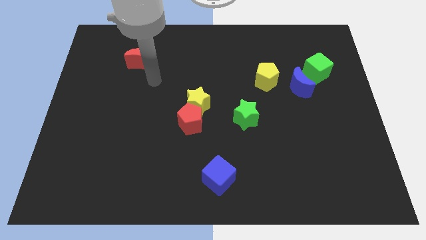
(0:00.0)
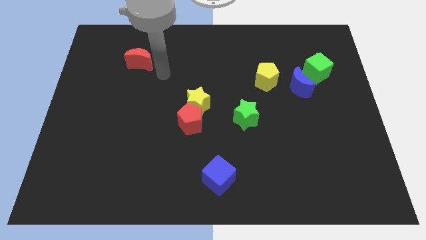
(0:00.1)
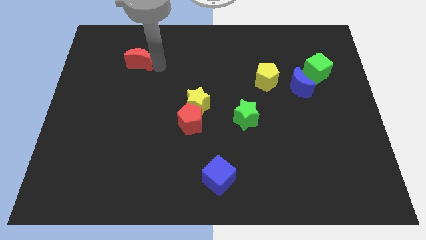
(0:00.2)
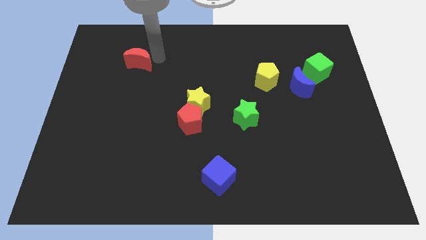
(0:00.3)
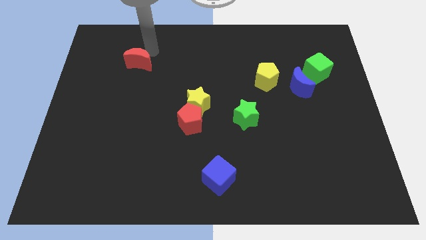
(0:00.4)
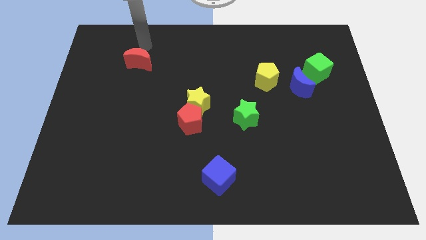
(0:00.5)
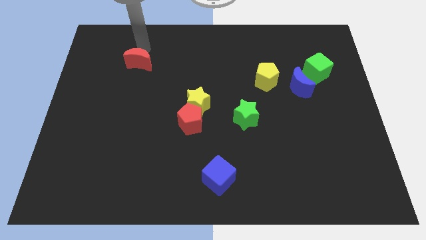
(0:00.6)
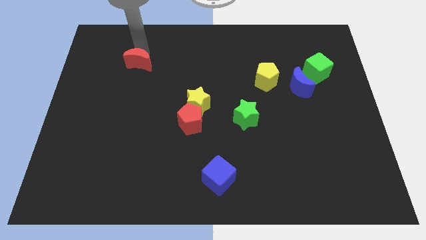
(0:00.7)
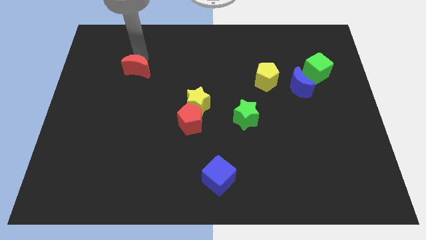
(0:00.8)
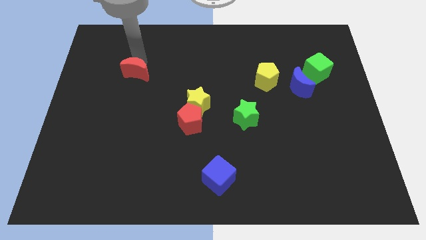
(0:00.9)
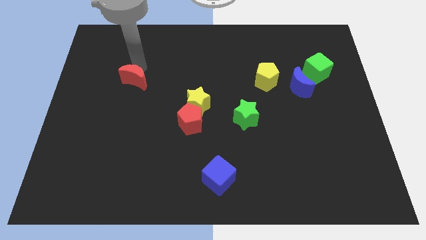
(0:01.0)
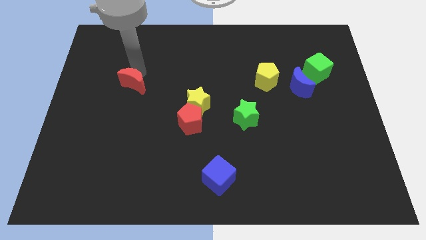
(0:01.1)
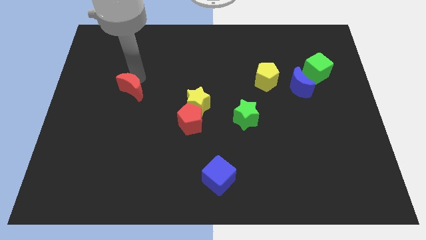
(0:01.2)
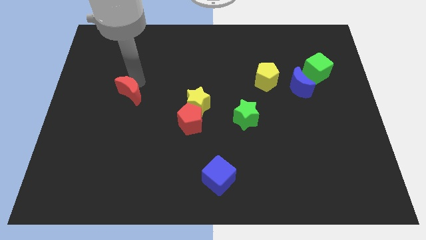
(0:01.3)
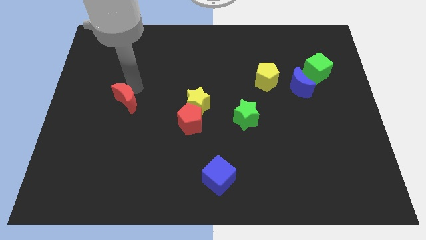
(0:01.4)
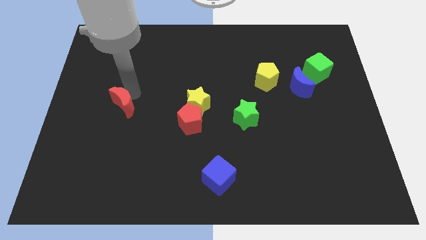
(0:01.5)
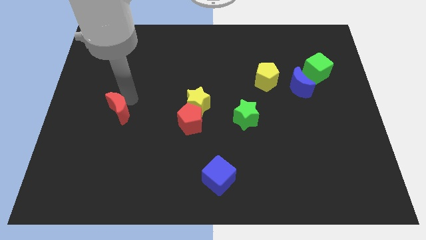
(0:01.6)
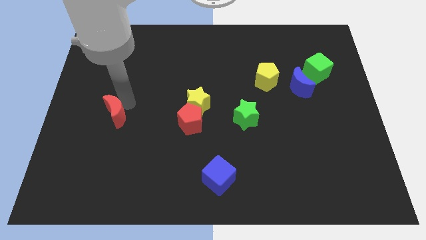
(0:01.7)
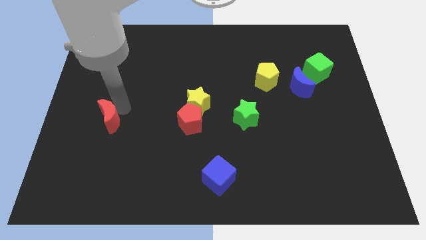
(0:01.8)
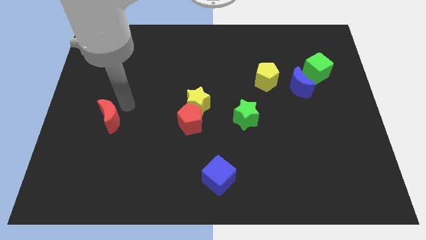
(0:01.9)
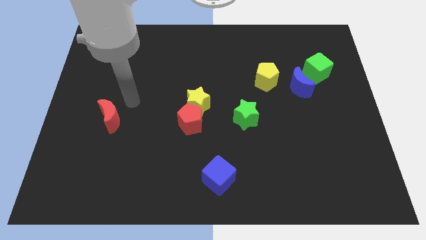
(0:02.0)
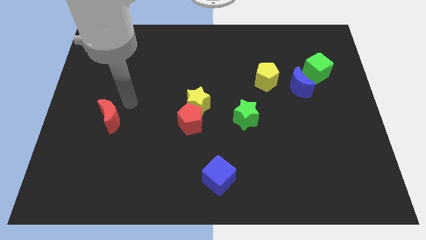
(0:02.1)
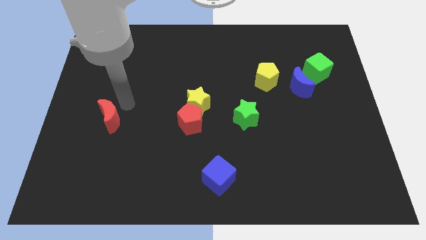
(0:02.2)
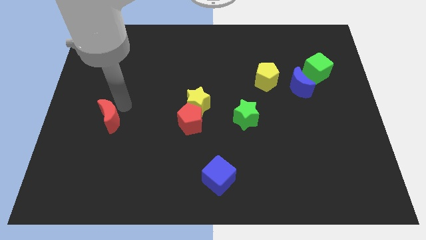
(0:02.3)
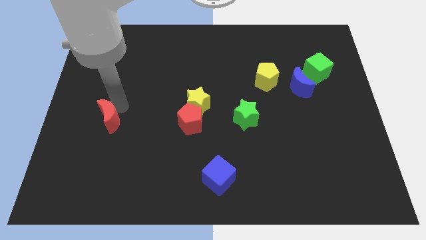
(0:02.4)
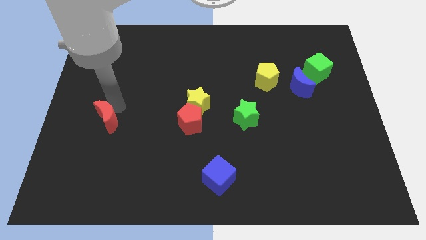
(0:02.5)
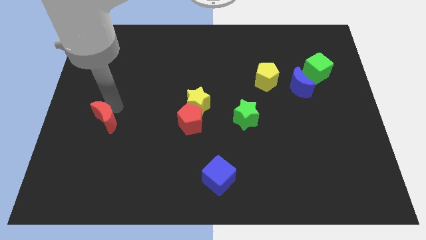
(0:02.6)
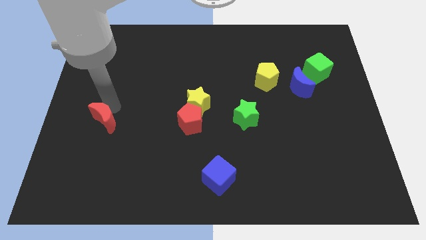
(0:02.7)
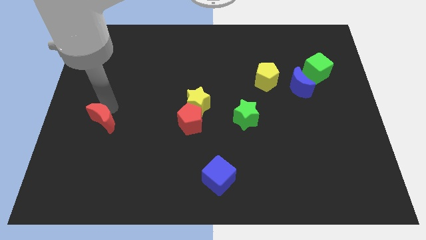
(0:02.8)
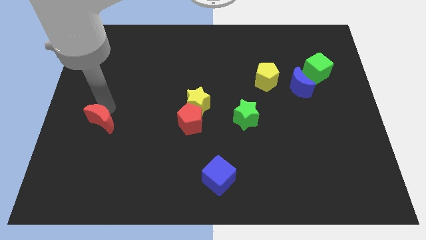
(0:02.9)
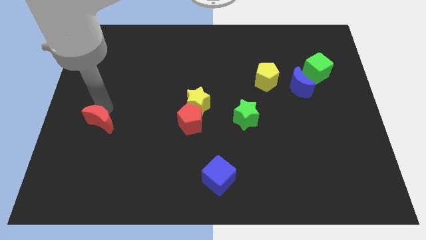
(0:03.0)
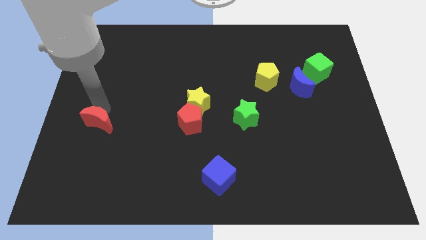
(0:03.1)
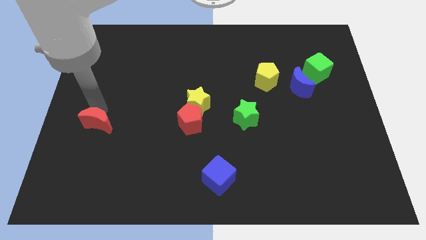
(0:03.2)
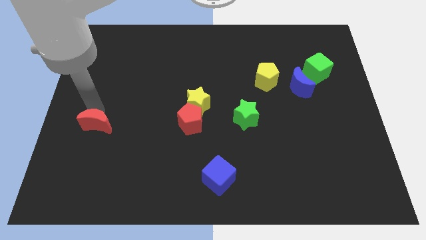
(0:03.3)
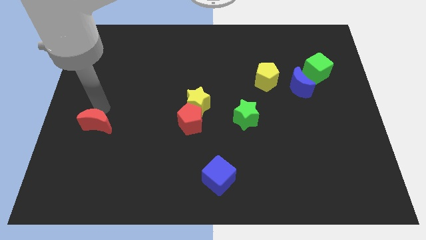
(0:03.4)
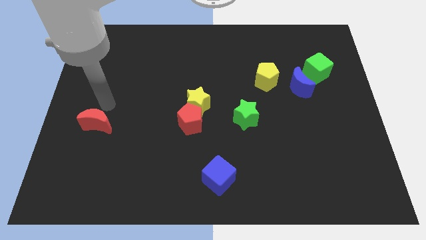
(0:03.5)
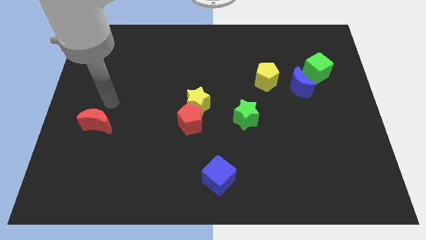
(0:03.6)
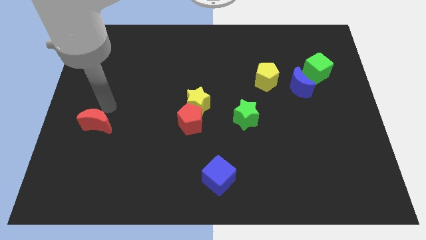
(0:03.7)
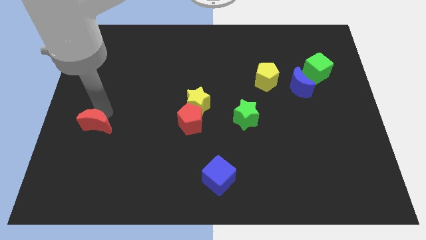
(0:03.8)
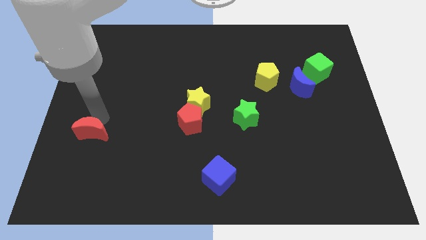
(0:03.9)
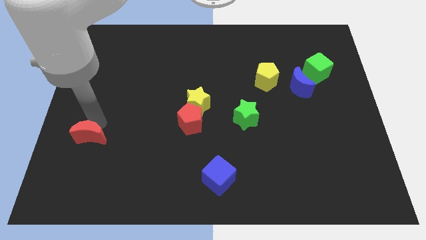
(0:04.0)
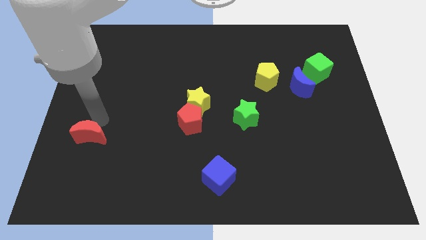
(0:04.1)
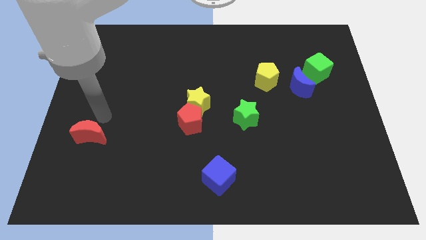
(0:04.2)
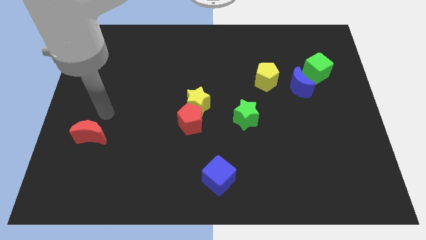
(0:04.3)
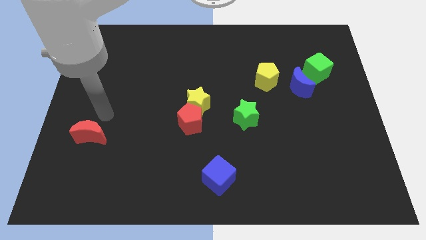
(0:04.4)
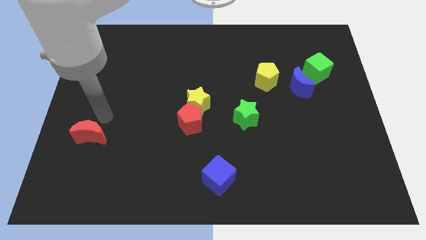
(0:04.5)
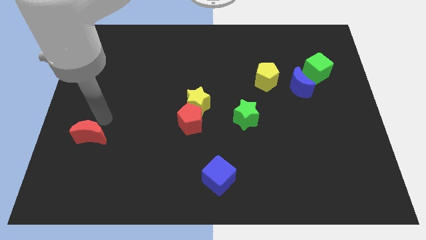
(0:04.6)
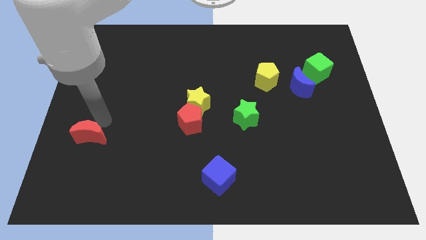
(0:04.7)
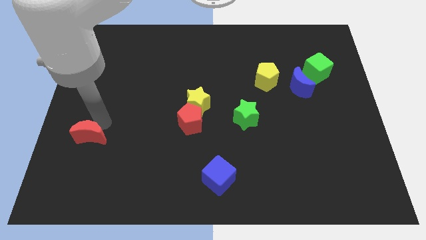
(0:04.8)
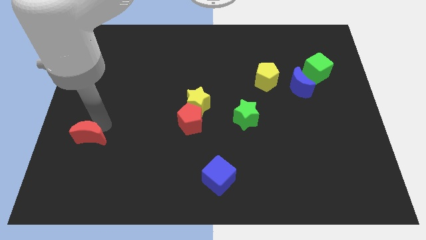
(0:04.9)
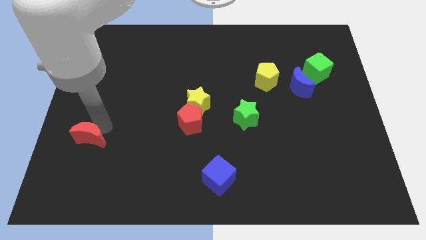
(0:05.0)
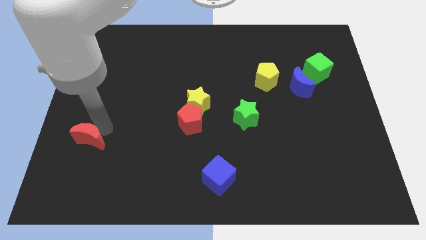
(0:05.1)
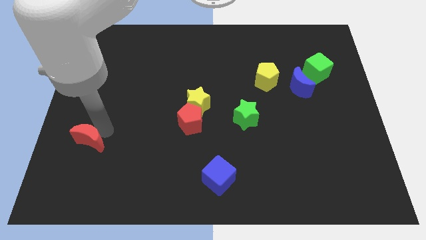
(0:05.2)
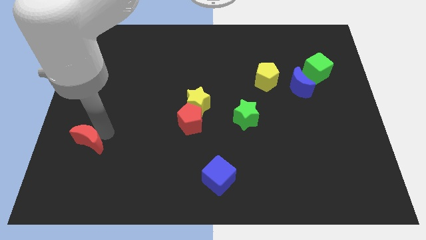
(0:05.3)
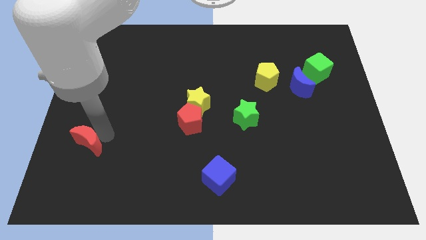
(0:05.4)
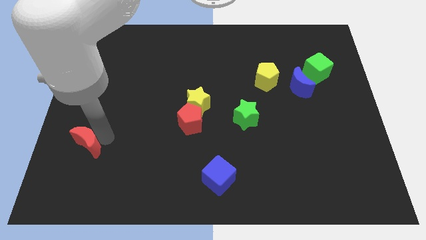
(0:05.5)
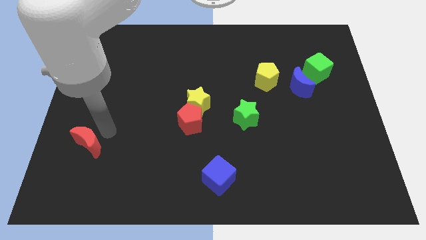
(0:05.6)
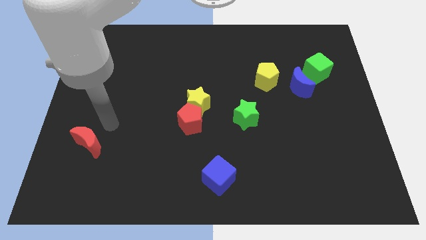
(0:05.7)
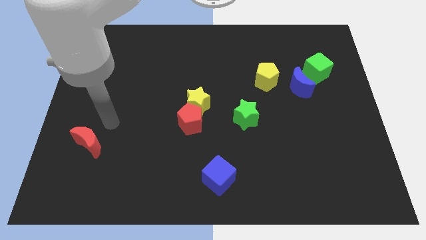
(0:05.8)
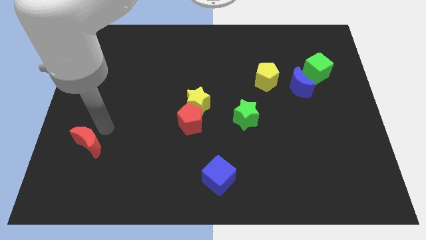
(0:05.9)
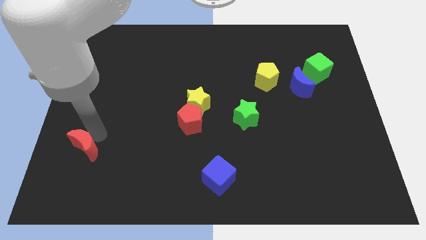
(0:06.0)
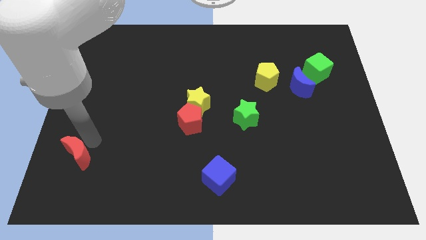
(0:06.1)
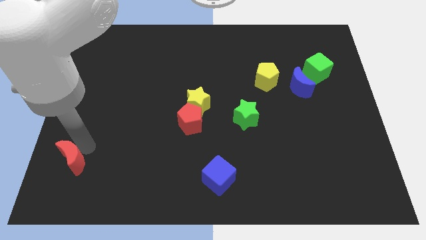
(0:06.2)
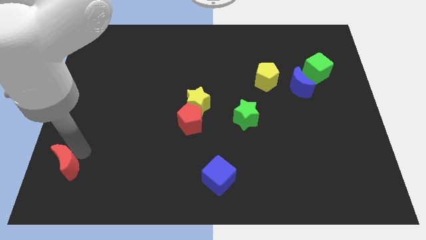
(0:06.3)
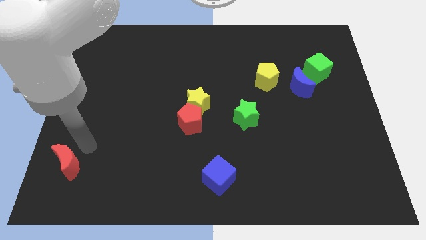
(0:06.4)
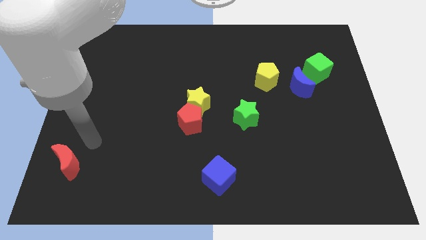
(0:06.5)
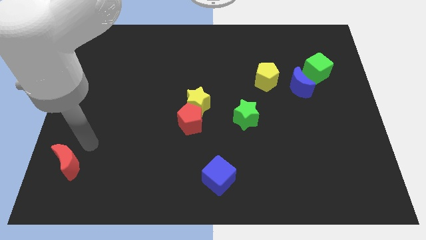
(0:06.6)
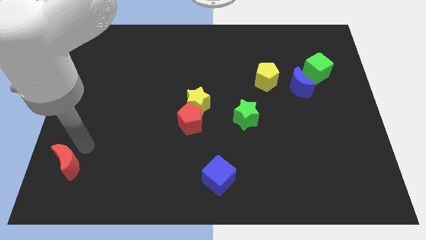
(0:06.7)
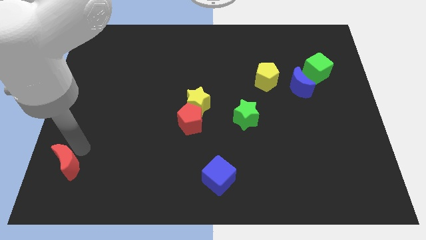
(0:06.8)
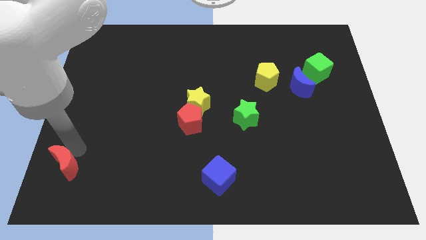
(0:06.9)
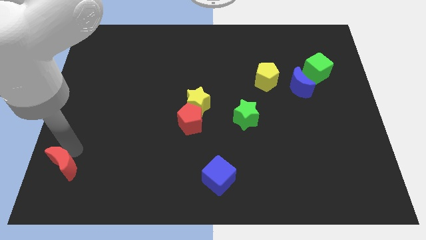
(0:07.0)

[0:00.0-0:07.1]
move the red moon to the bottom left corner
